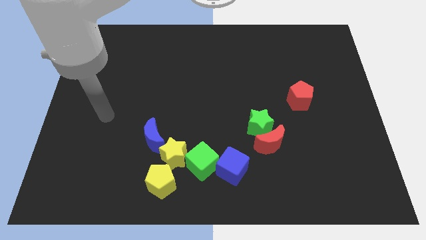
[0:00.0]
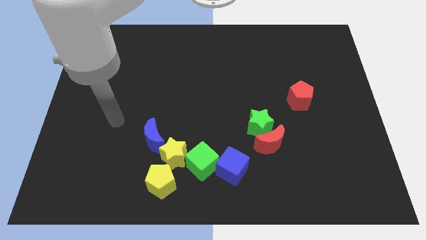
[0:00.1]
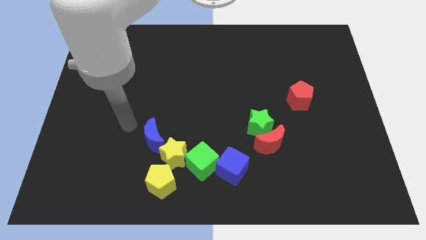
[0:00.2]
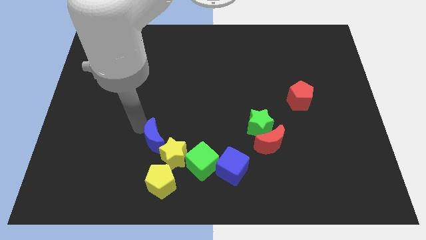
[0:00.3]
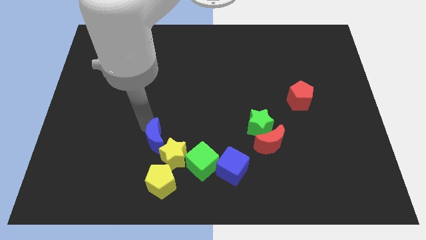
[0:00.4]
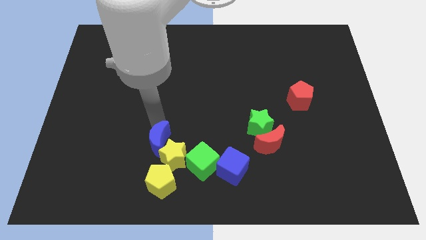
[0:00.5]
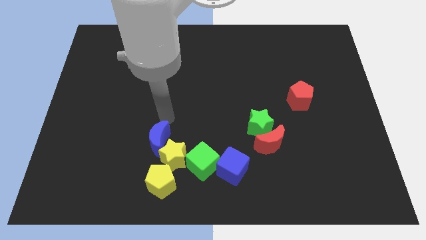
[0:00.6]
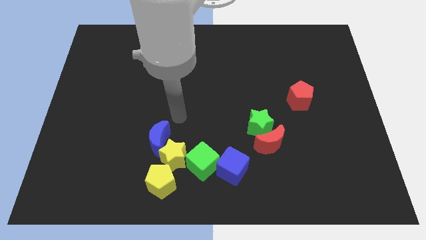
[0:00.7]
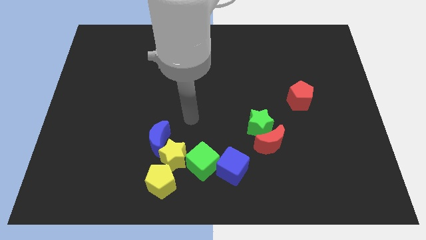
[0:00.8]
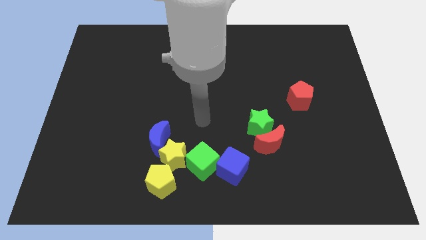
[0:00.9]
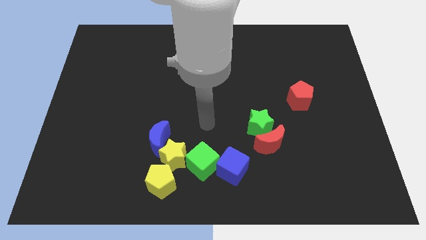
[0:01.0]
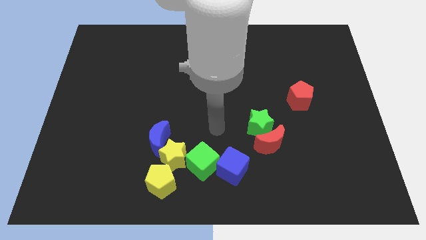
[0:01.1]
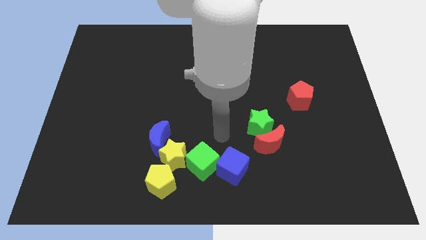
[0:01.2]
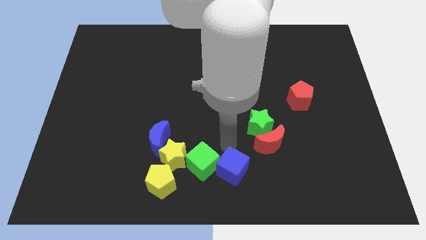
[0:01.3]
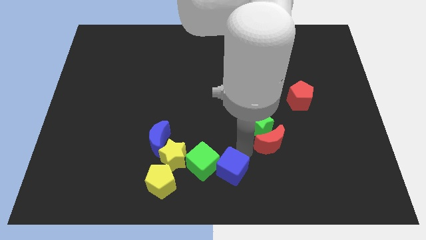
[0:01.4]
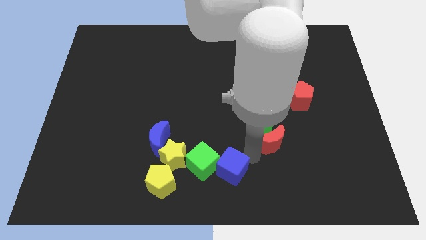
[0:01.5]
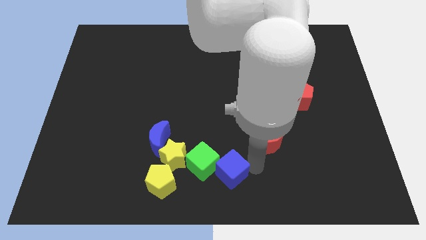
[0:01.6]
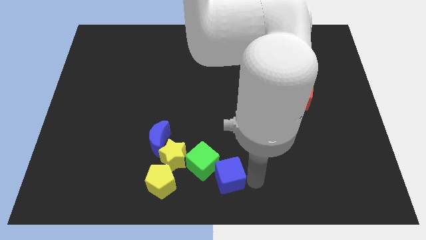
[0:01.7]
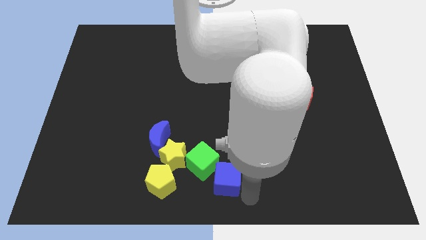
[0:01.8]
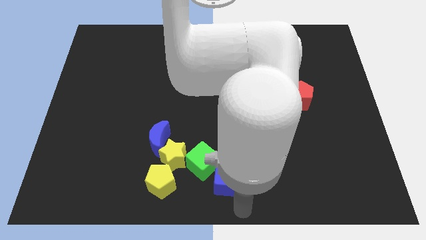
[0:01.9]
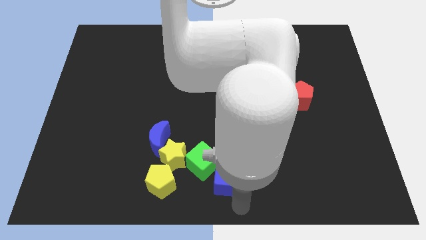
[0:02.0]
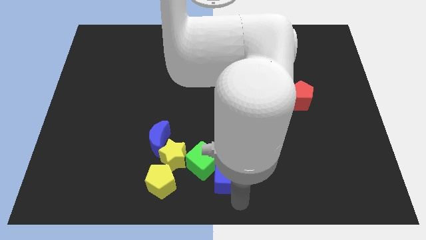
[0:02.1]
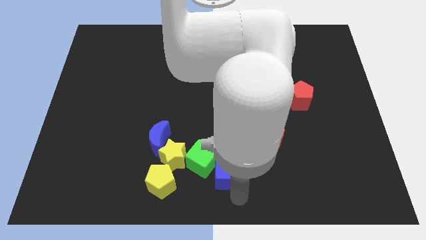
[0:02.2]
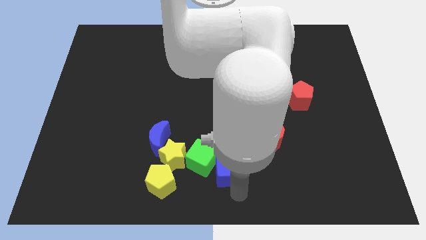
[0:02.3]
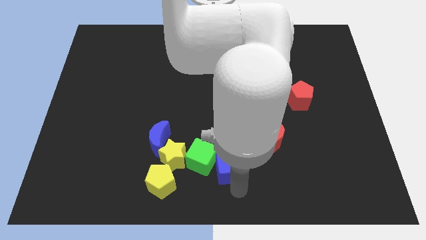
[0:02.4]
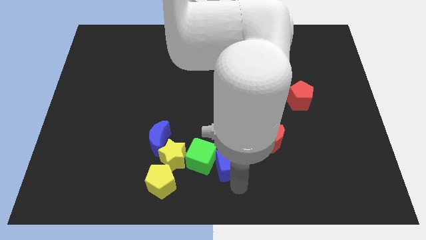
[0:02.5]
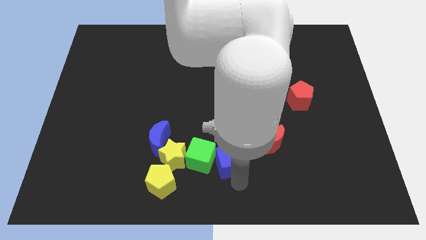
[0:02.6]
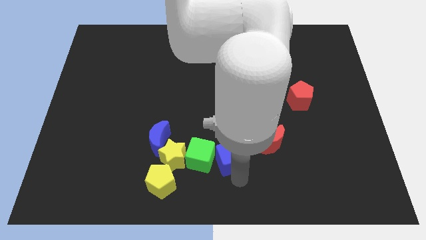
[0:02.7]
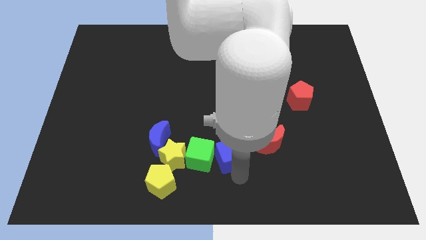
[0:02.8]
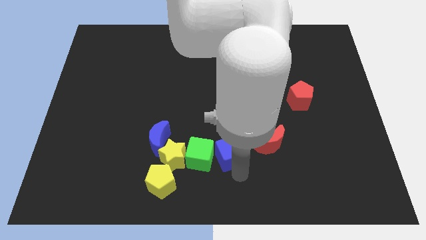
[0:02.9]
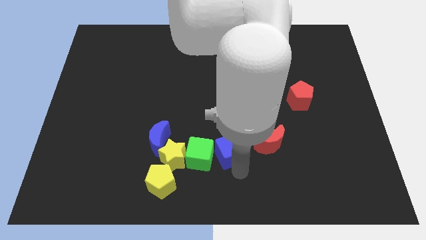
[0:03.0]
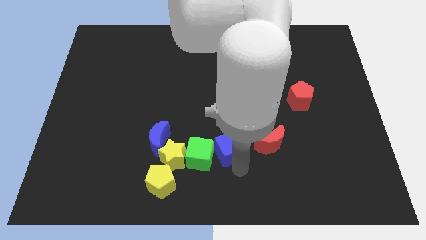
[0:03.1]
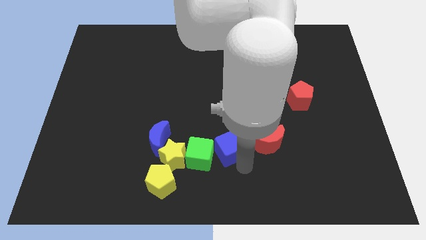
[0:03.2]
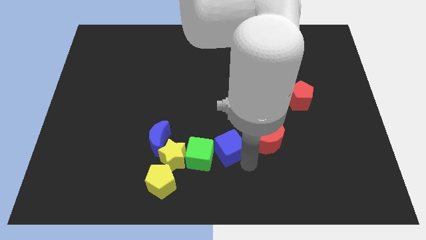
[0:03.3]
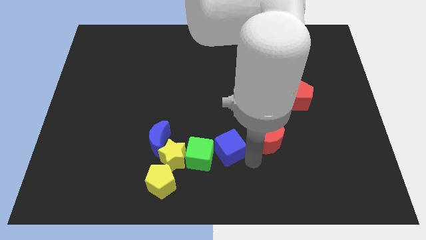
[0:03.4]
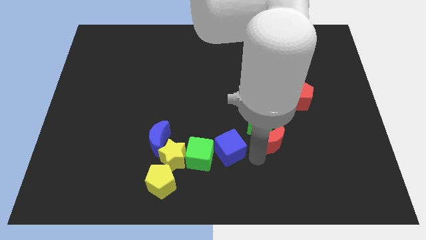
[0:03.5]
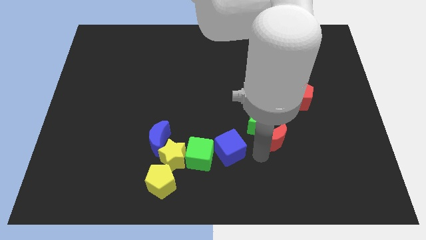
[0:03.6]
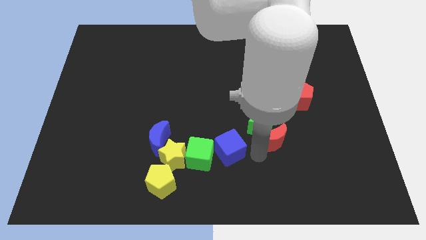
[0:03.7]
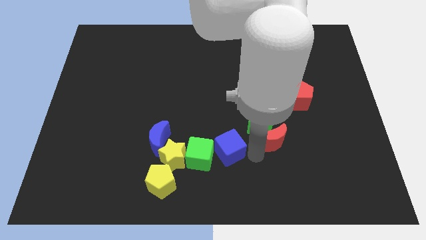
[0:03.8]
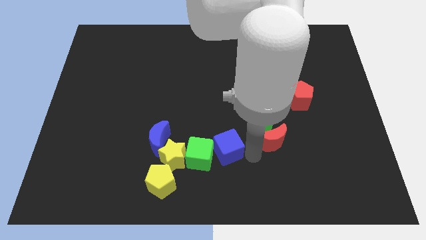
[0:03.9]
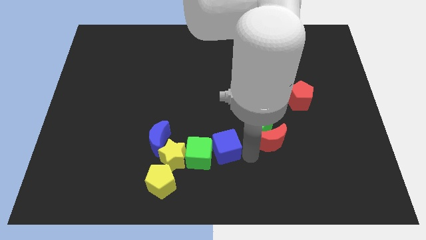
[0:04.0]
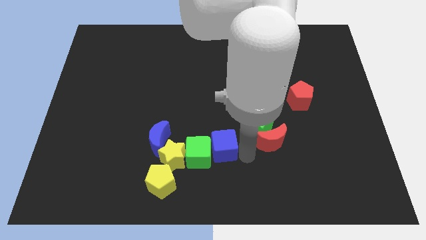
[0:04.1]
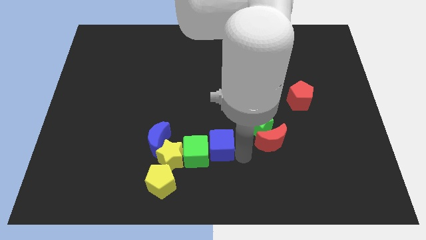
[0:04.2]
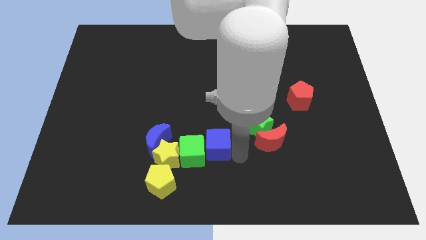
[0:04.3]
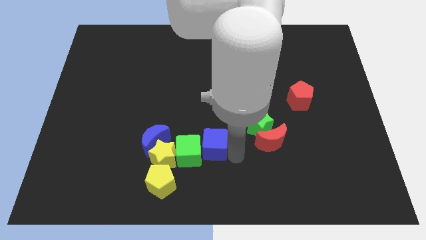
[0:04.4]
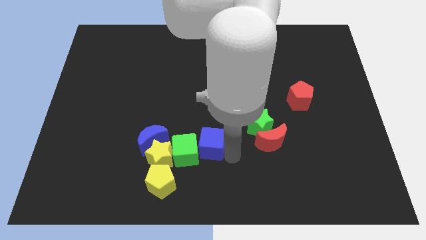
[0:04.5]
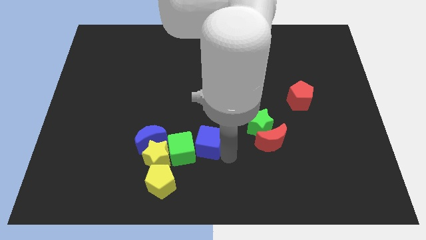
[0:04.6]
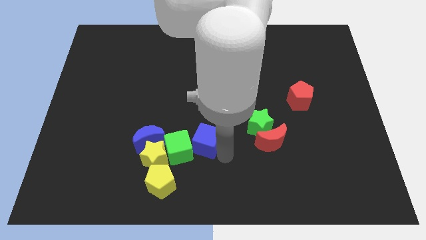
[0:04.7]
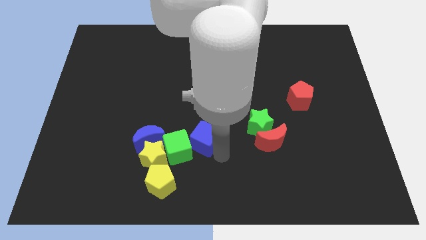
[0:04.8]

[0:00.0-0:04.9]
move the blue cube to the top right of the yellow star

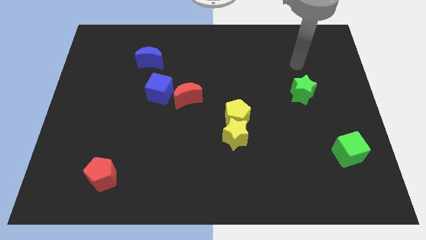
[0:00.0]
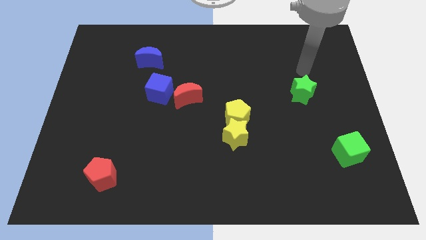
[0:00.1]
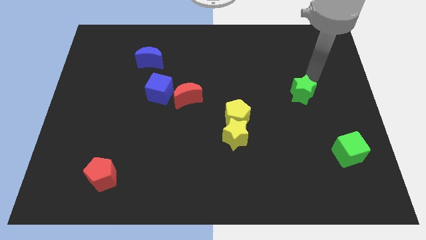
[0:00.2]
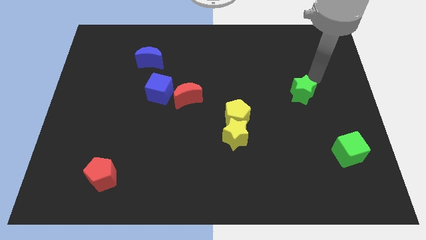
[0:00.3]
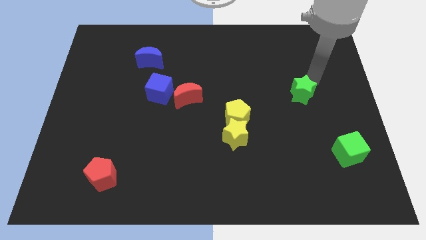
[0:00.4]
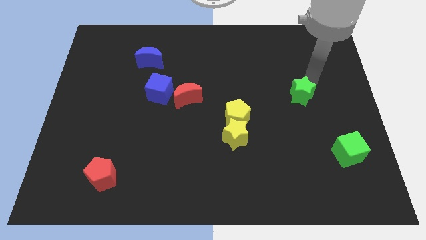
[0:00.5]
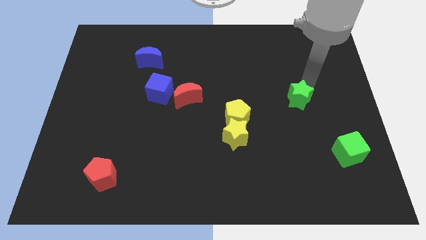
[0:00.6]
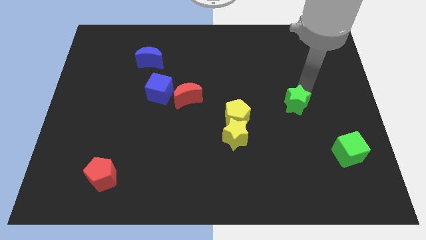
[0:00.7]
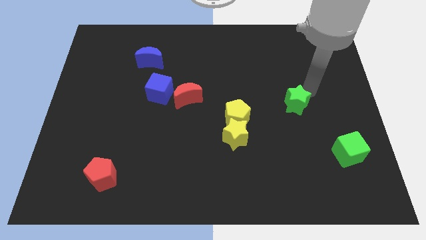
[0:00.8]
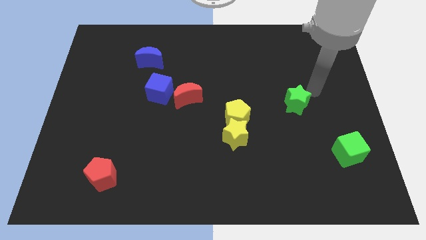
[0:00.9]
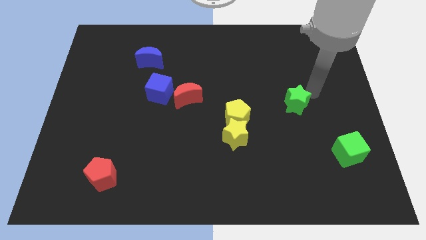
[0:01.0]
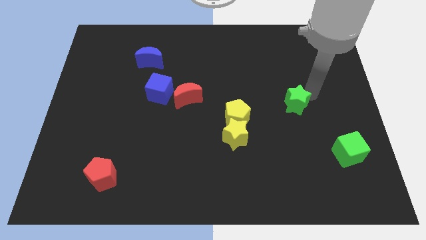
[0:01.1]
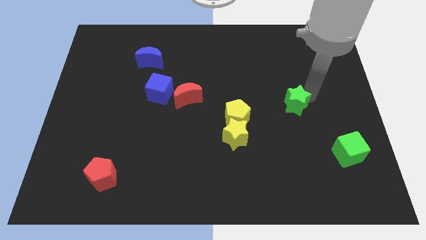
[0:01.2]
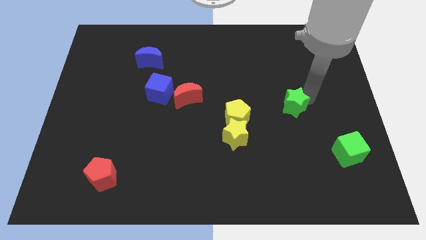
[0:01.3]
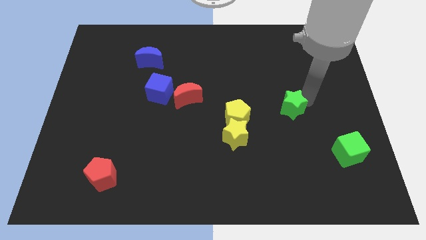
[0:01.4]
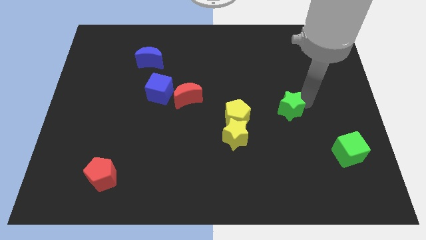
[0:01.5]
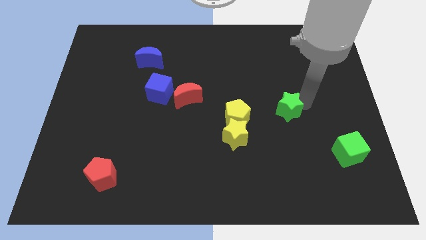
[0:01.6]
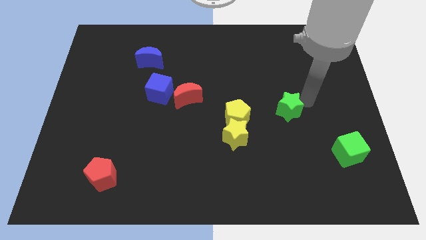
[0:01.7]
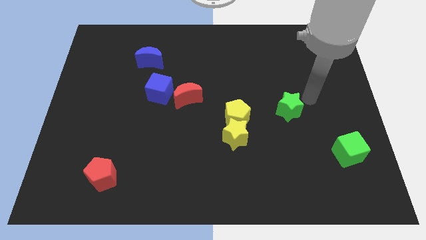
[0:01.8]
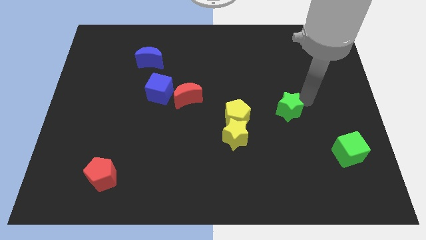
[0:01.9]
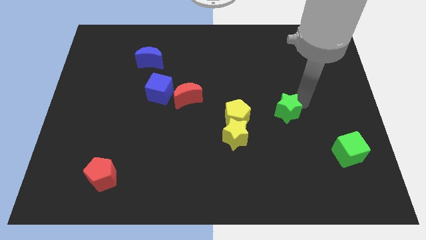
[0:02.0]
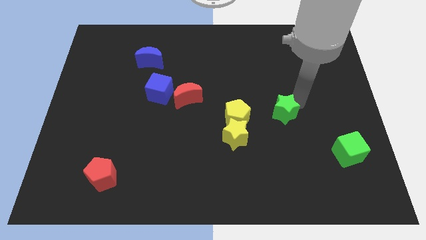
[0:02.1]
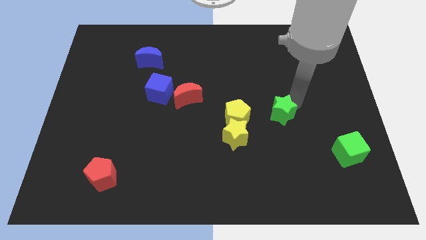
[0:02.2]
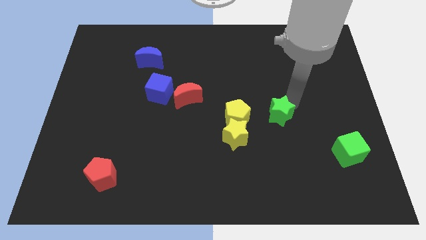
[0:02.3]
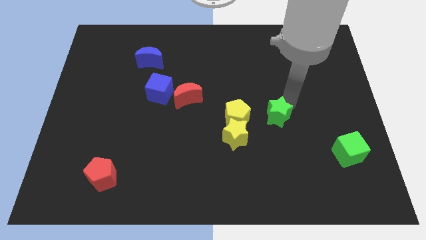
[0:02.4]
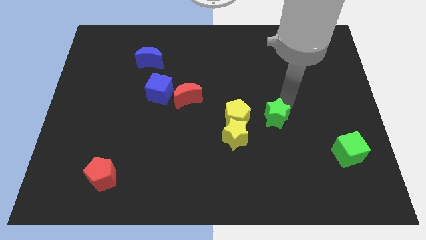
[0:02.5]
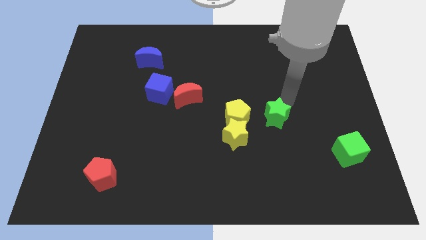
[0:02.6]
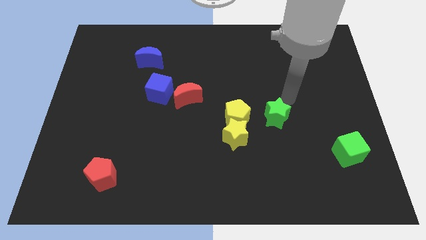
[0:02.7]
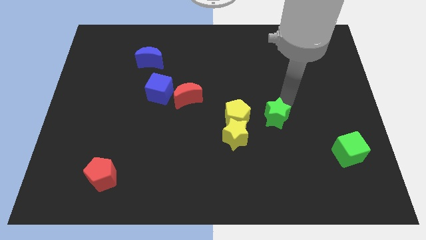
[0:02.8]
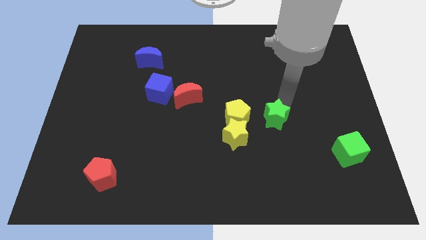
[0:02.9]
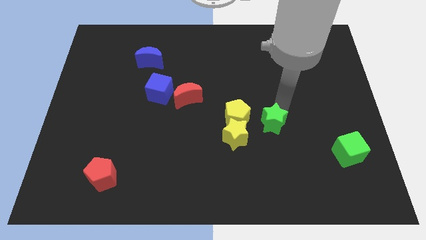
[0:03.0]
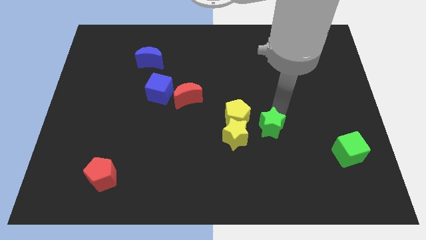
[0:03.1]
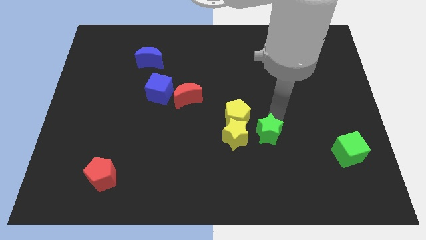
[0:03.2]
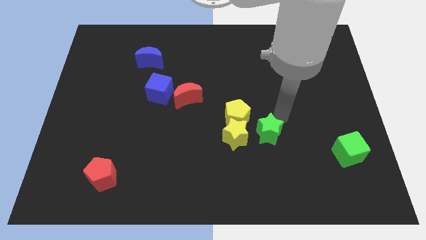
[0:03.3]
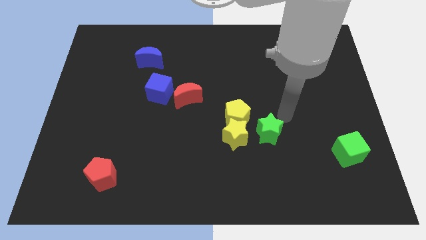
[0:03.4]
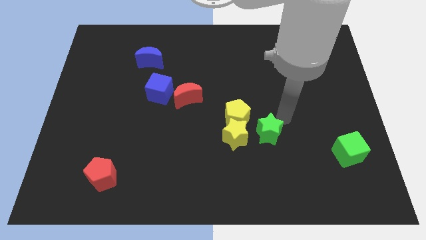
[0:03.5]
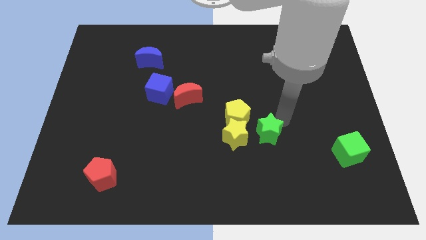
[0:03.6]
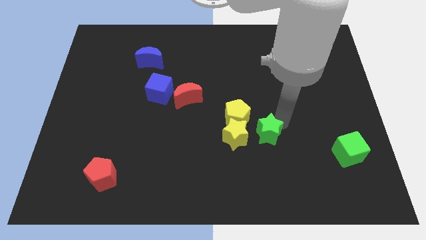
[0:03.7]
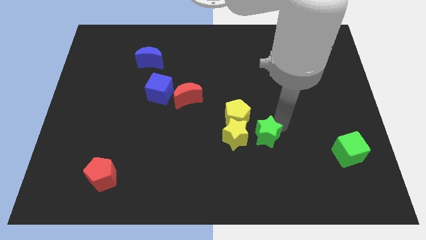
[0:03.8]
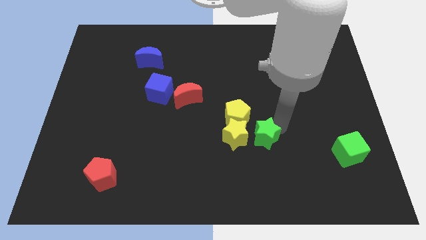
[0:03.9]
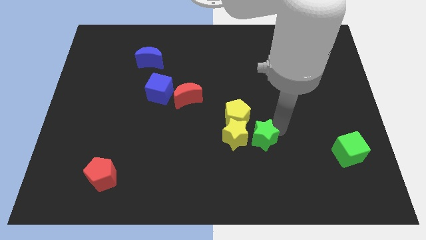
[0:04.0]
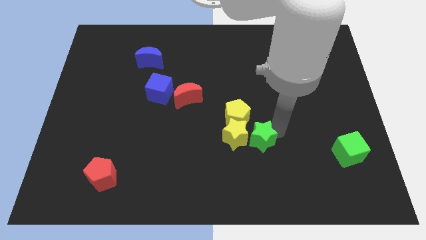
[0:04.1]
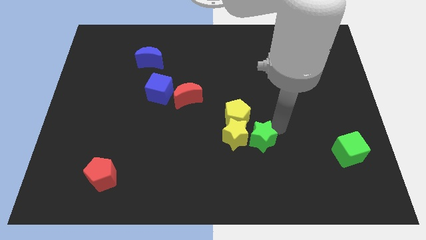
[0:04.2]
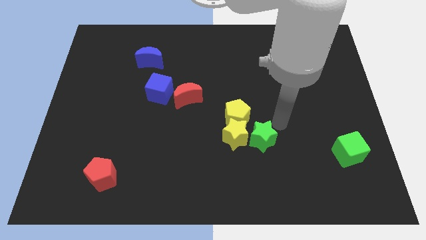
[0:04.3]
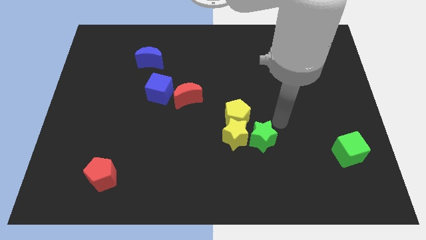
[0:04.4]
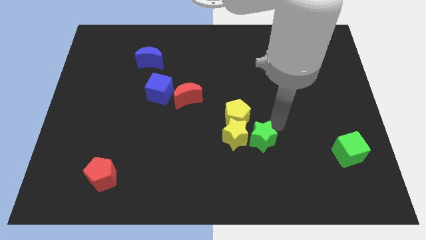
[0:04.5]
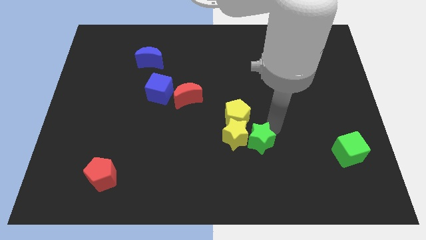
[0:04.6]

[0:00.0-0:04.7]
move the green star to the bottom side of the yellow pentagon
